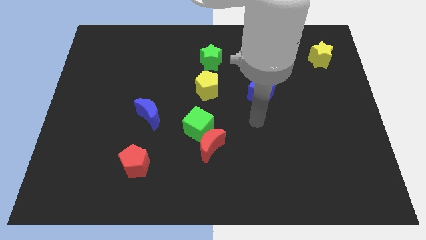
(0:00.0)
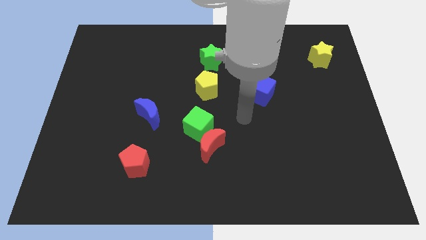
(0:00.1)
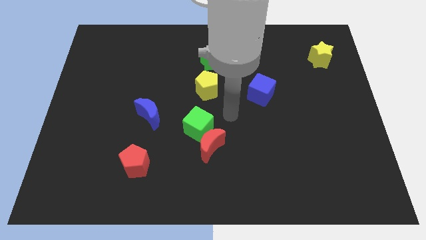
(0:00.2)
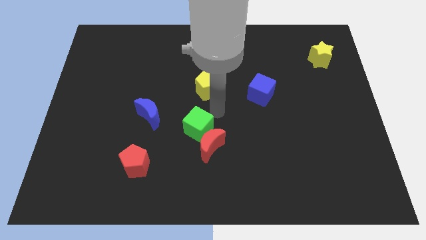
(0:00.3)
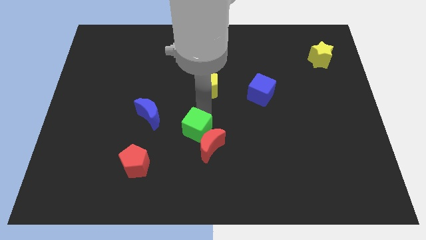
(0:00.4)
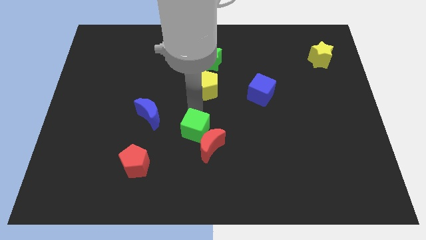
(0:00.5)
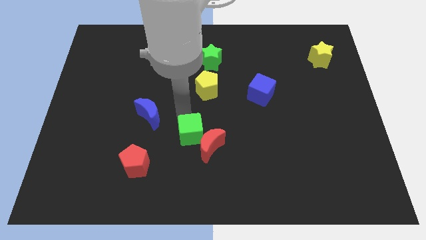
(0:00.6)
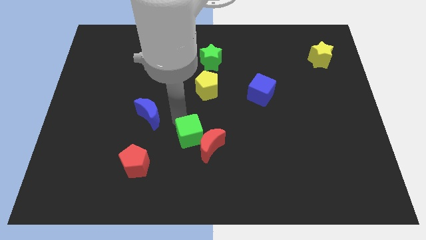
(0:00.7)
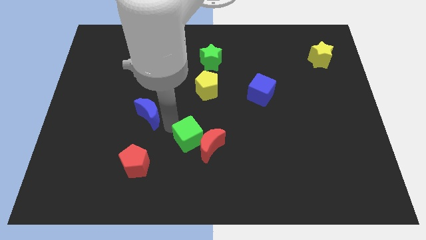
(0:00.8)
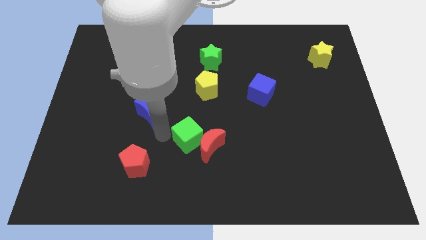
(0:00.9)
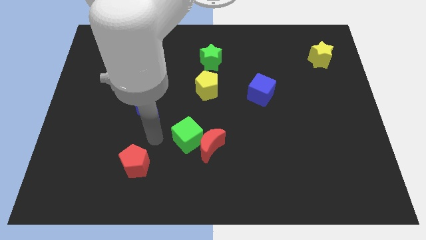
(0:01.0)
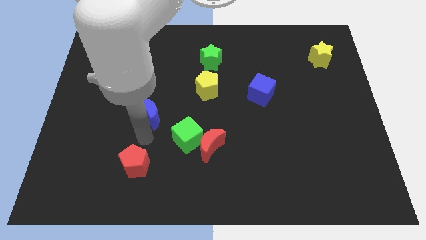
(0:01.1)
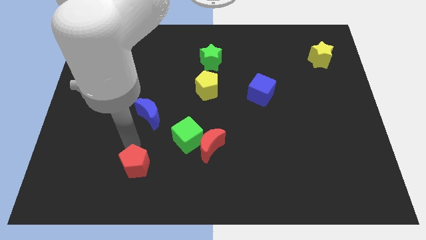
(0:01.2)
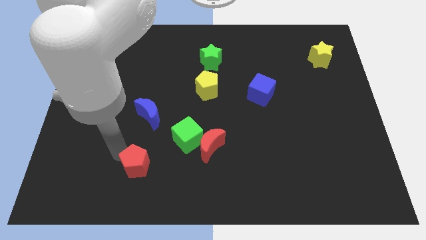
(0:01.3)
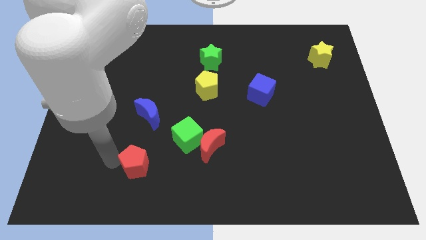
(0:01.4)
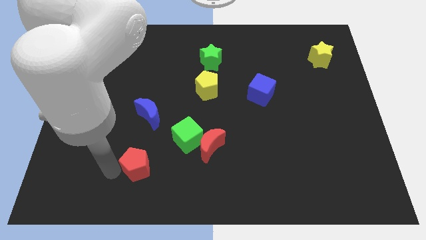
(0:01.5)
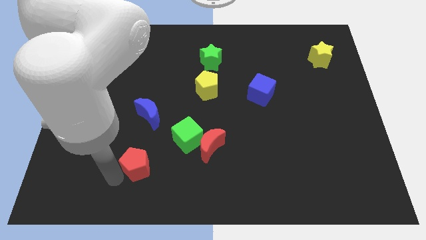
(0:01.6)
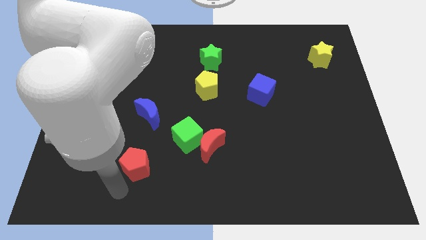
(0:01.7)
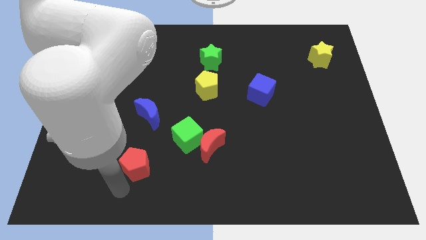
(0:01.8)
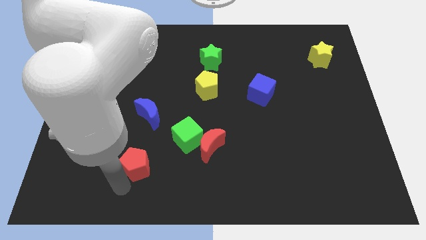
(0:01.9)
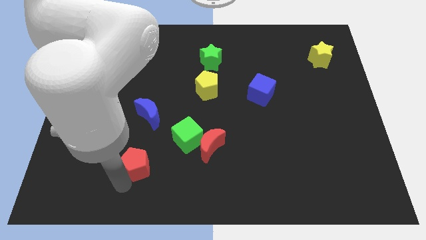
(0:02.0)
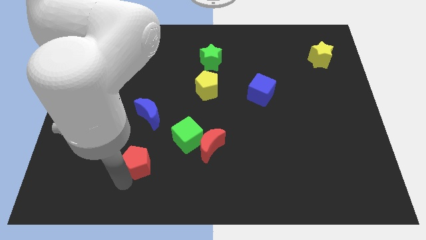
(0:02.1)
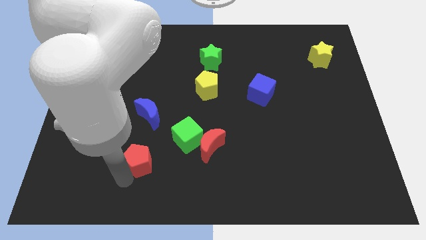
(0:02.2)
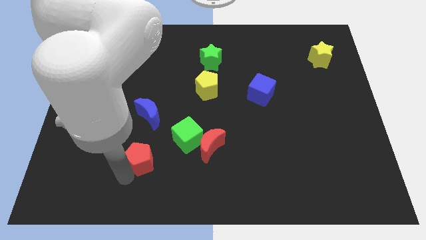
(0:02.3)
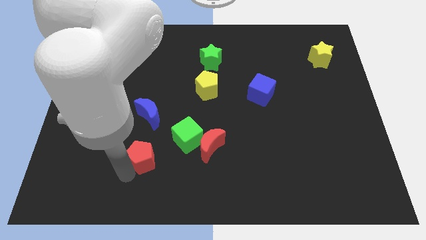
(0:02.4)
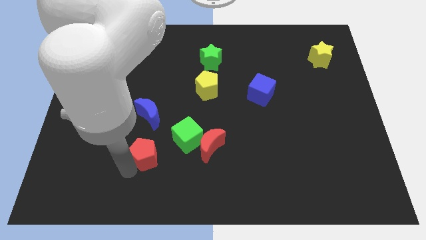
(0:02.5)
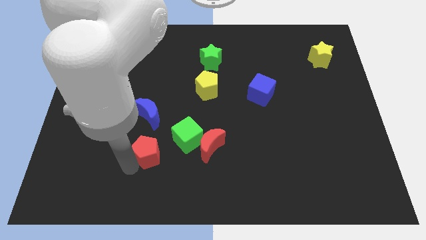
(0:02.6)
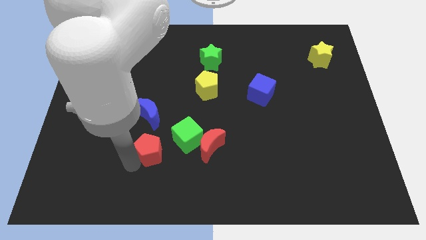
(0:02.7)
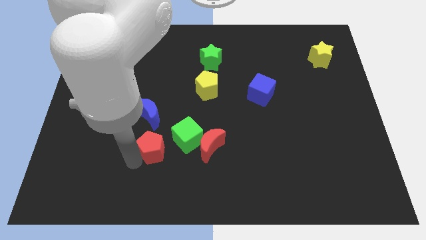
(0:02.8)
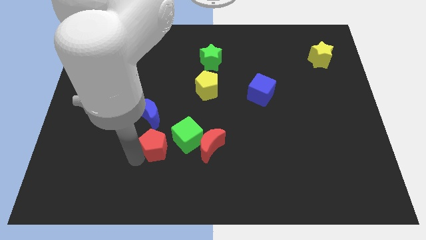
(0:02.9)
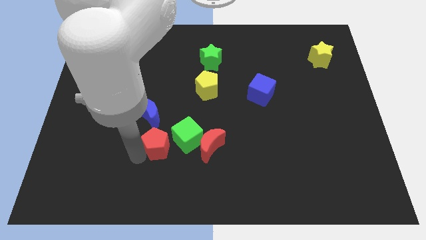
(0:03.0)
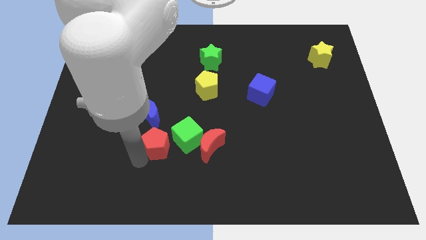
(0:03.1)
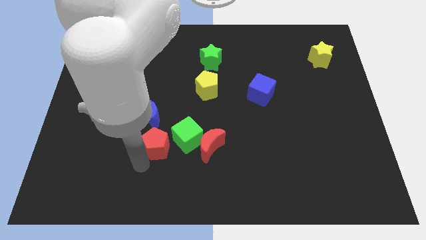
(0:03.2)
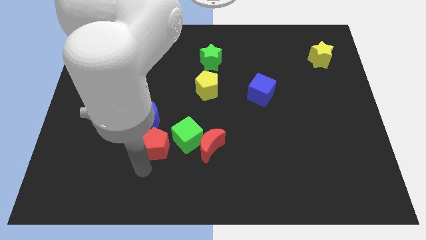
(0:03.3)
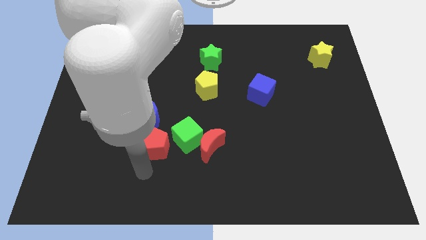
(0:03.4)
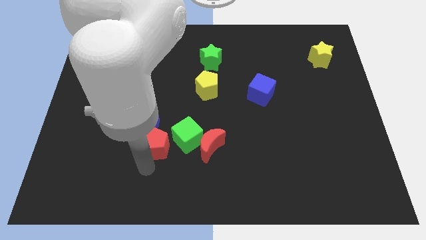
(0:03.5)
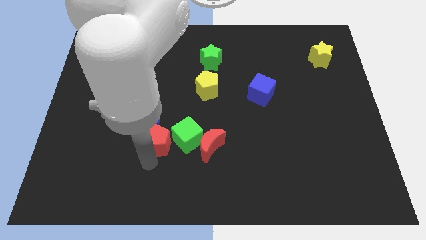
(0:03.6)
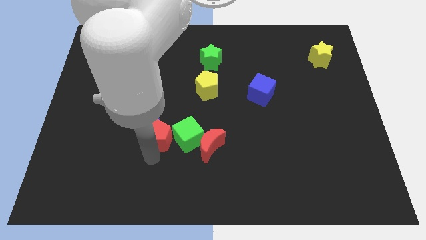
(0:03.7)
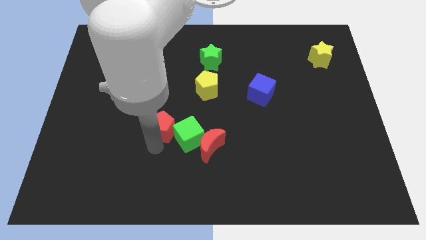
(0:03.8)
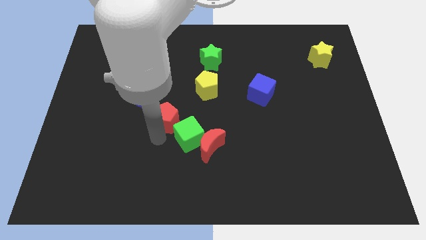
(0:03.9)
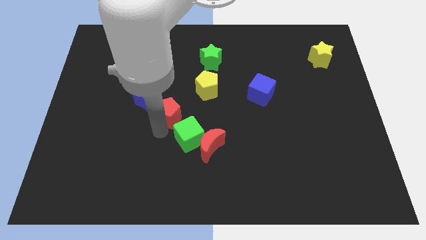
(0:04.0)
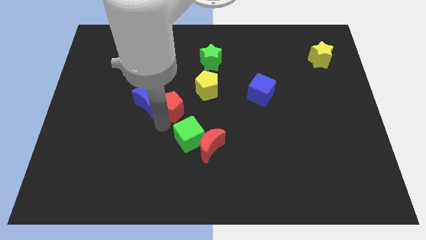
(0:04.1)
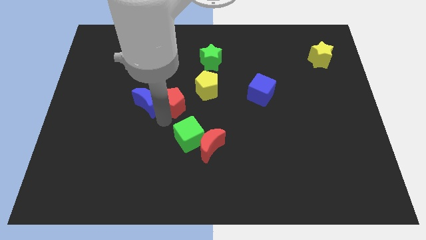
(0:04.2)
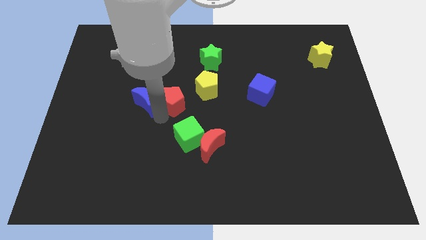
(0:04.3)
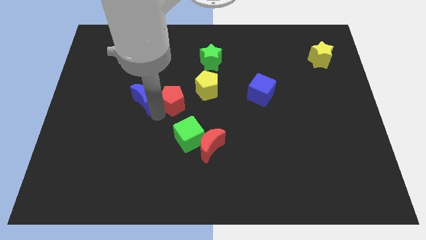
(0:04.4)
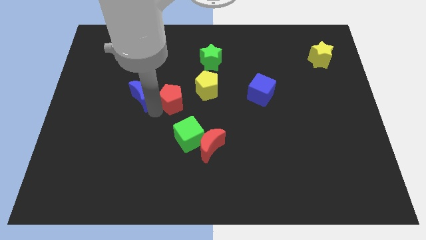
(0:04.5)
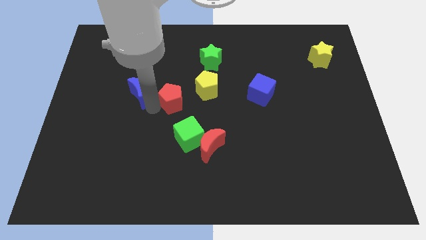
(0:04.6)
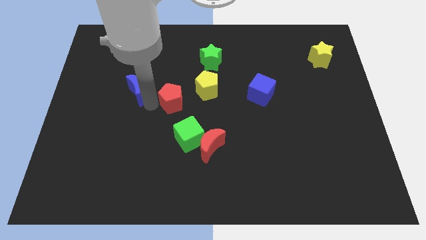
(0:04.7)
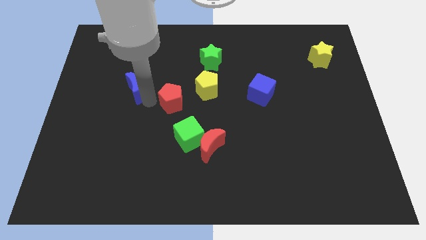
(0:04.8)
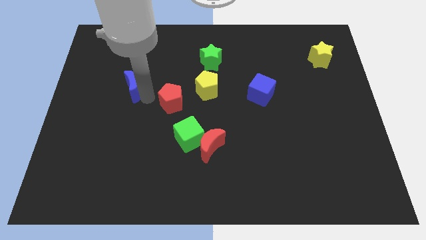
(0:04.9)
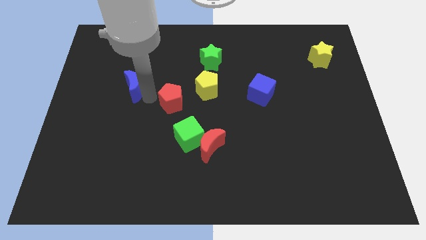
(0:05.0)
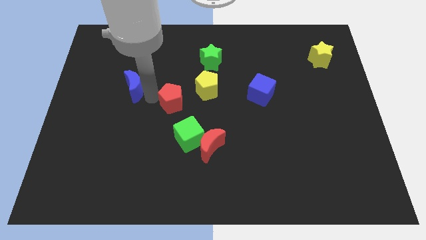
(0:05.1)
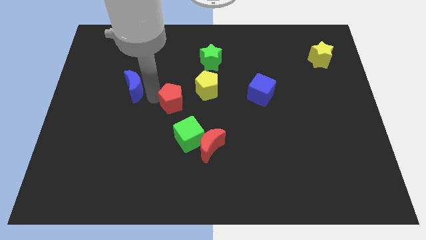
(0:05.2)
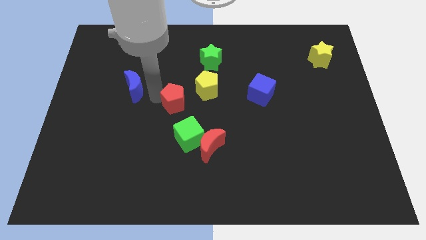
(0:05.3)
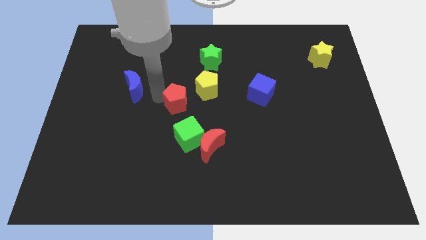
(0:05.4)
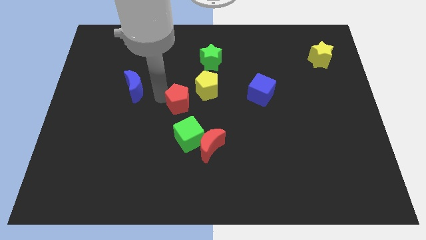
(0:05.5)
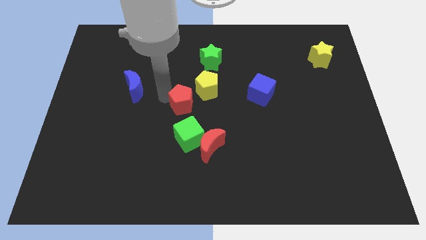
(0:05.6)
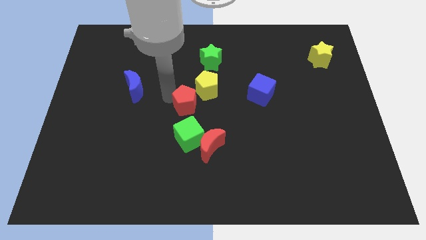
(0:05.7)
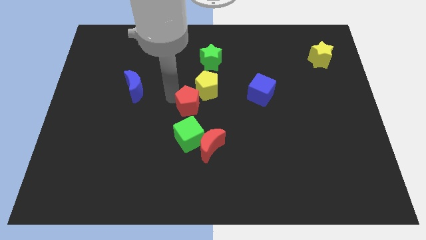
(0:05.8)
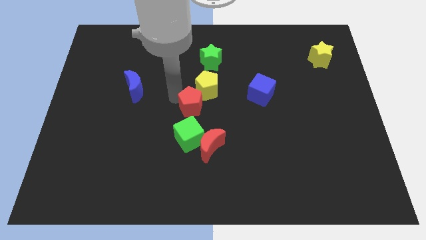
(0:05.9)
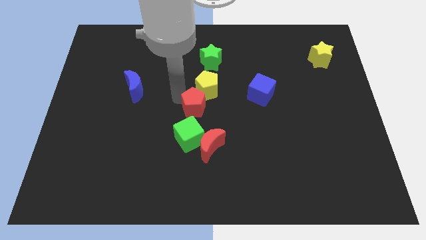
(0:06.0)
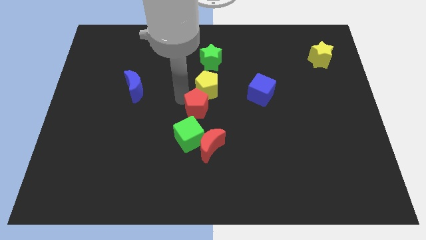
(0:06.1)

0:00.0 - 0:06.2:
push the red pentagon to the top right side of the green cube

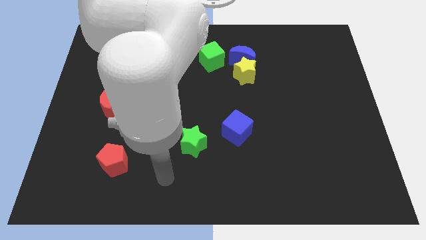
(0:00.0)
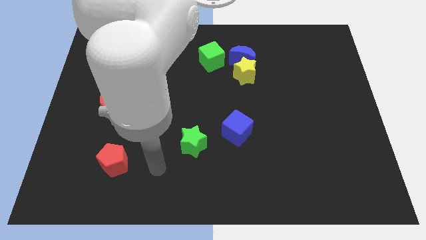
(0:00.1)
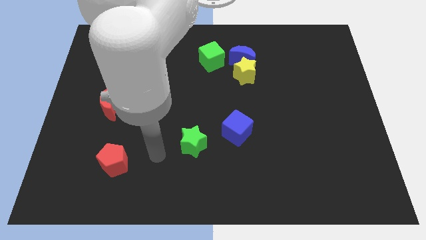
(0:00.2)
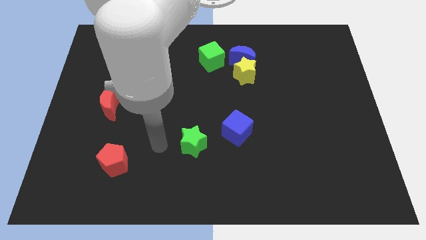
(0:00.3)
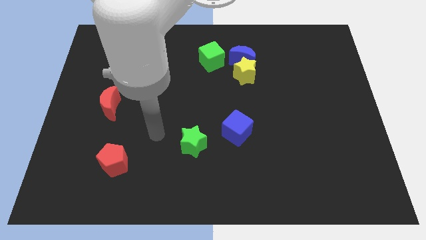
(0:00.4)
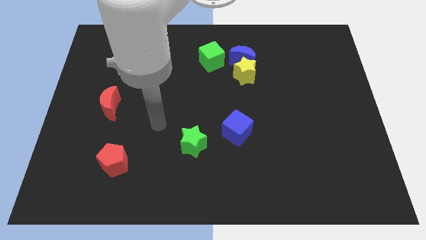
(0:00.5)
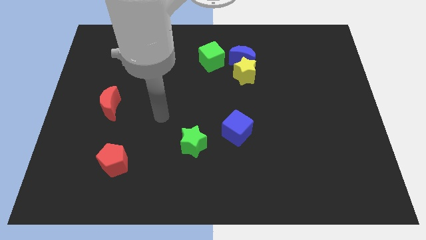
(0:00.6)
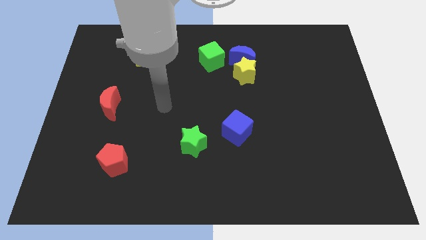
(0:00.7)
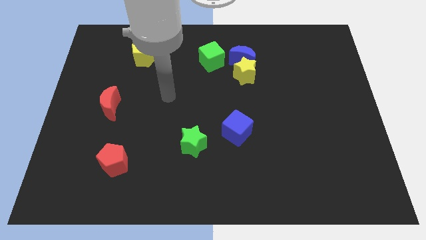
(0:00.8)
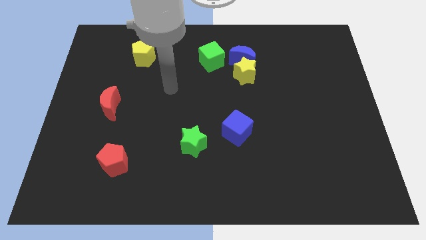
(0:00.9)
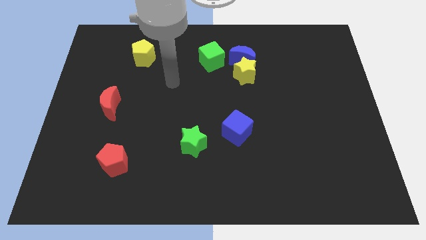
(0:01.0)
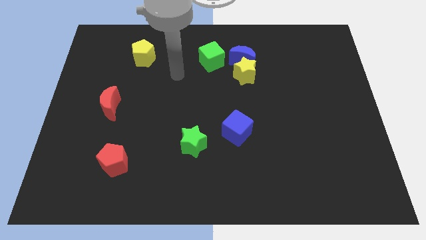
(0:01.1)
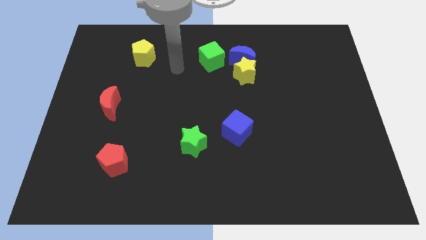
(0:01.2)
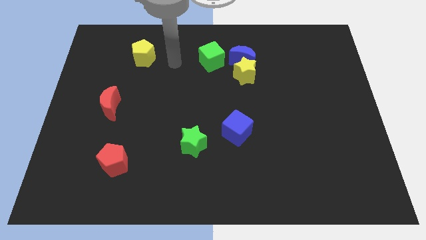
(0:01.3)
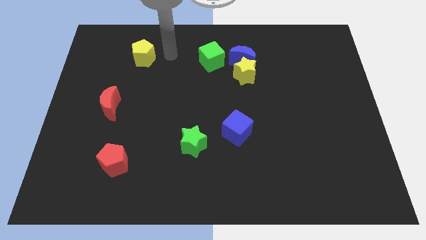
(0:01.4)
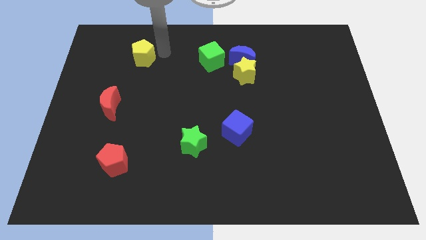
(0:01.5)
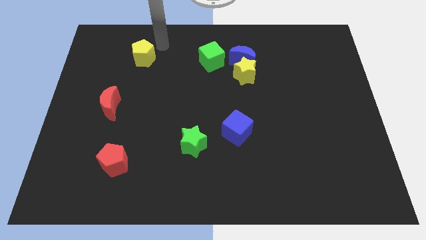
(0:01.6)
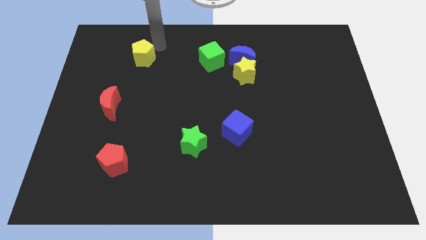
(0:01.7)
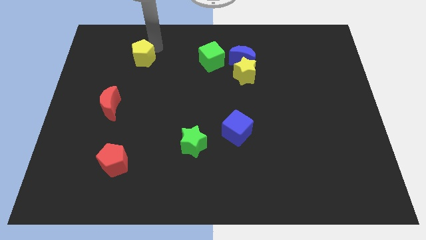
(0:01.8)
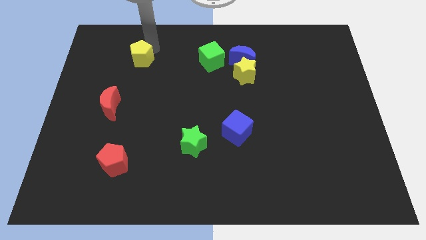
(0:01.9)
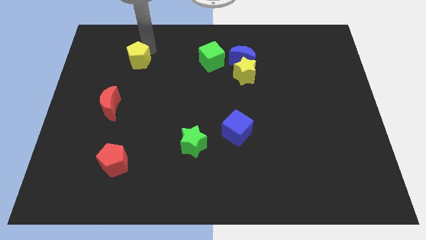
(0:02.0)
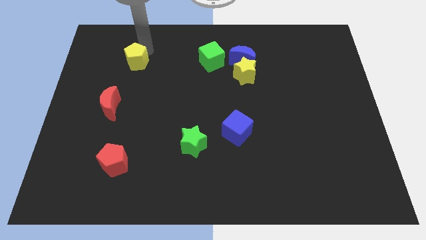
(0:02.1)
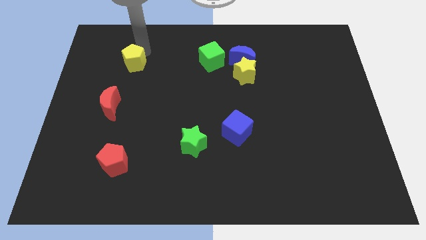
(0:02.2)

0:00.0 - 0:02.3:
move the yellow pentagon to the top of the red moon
